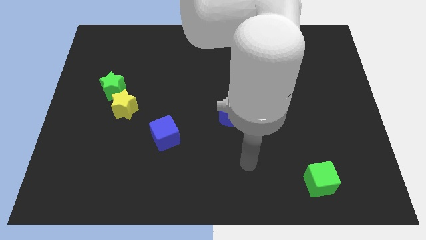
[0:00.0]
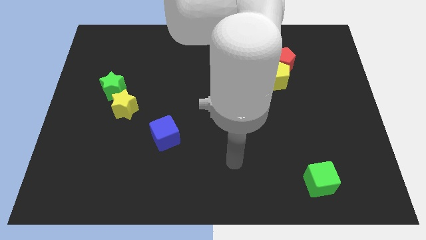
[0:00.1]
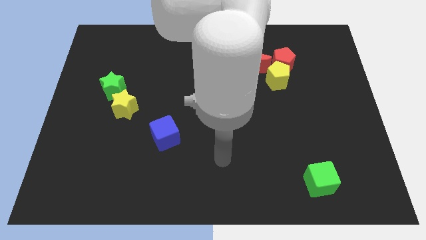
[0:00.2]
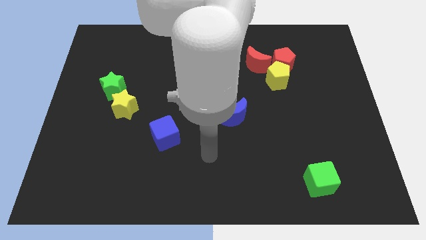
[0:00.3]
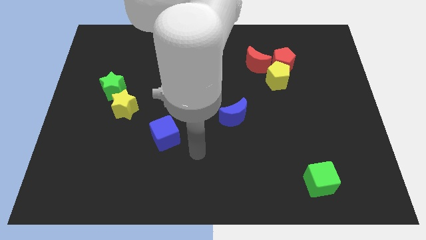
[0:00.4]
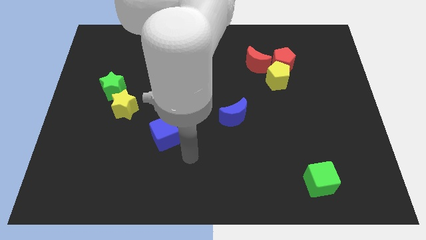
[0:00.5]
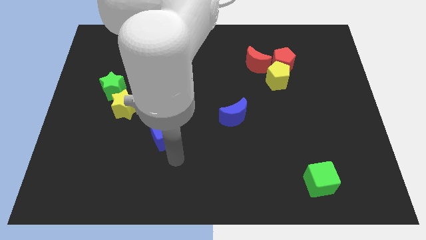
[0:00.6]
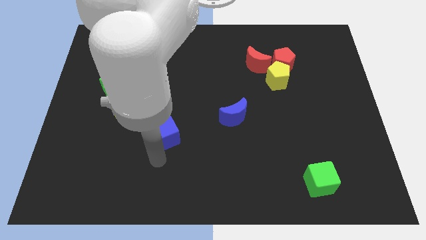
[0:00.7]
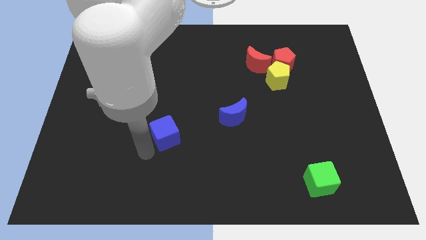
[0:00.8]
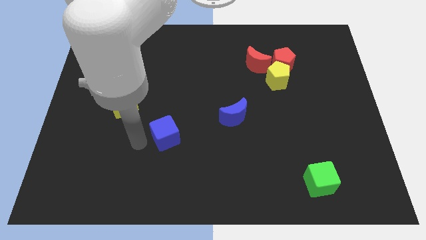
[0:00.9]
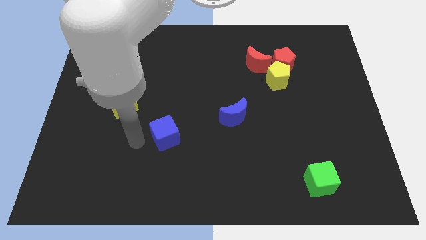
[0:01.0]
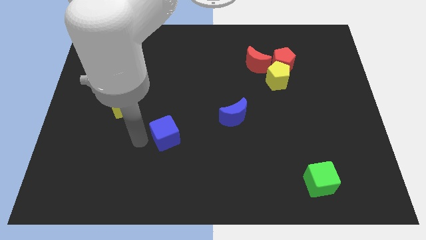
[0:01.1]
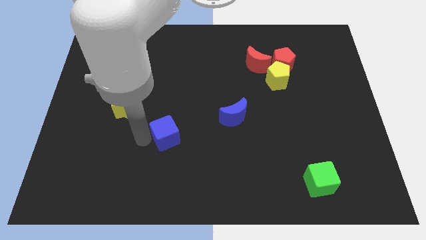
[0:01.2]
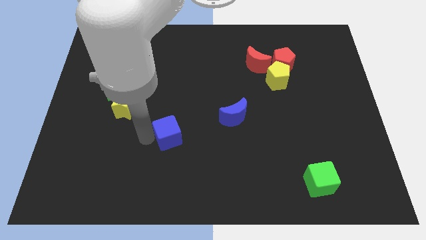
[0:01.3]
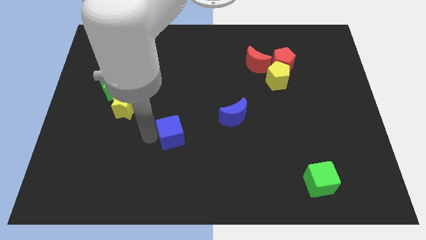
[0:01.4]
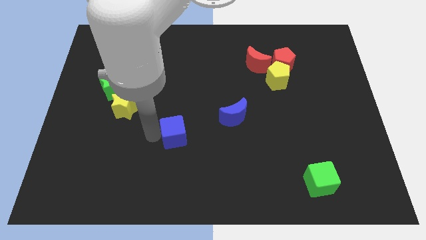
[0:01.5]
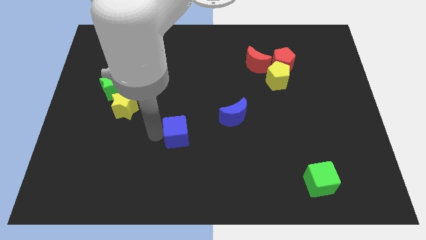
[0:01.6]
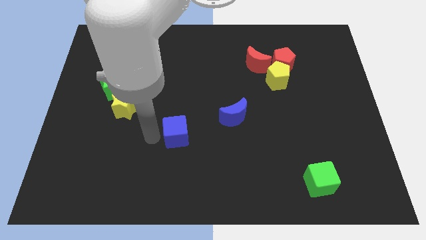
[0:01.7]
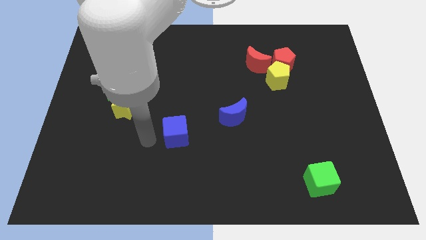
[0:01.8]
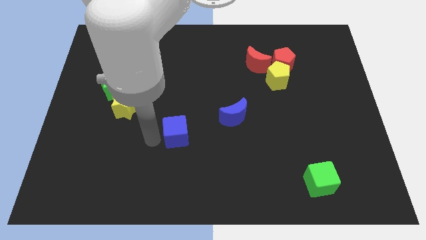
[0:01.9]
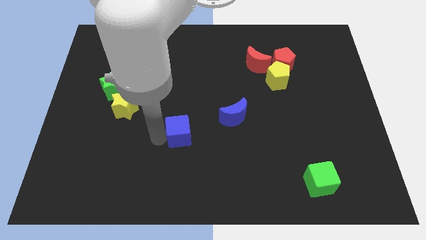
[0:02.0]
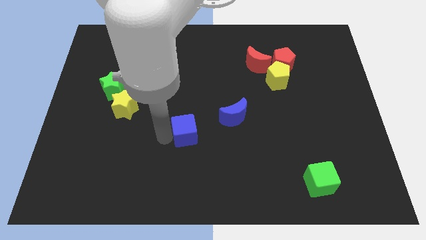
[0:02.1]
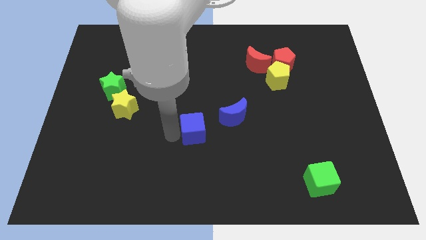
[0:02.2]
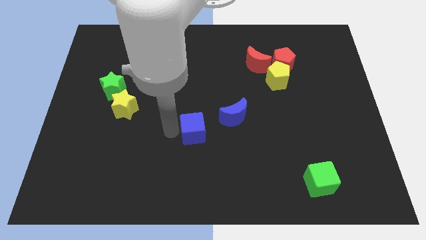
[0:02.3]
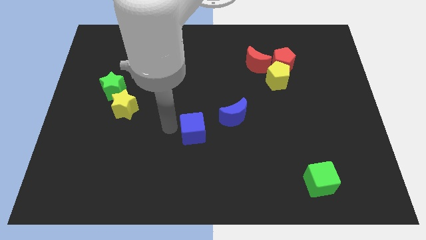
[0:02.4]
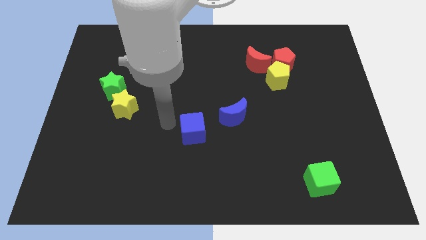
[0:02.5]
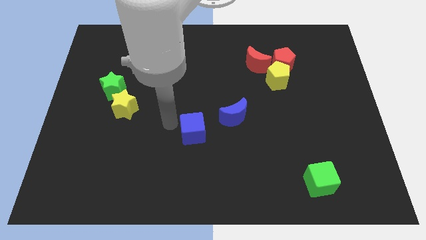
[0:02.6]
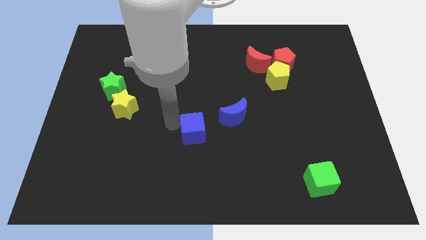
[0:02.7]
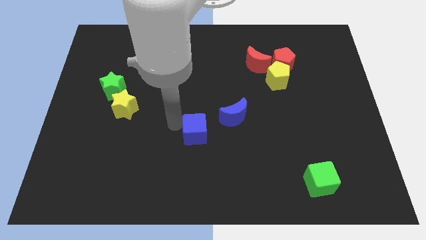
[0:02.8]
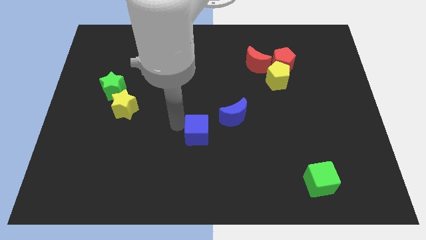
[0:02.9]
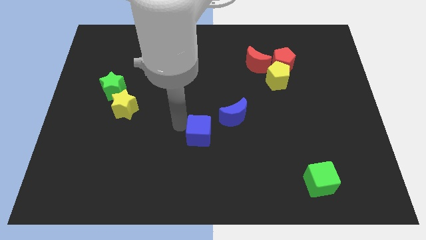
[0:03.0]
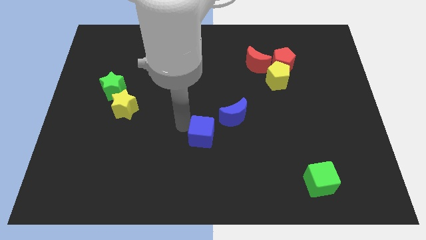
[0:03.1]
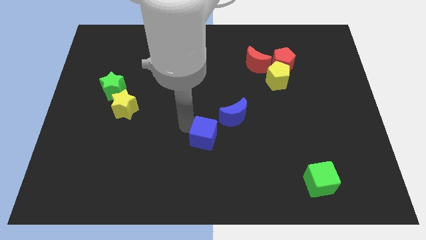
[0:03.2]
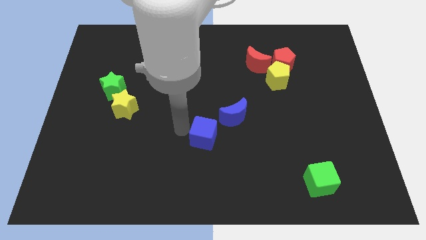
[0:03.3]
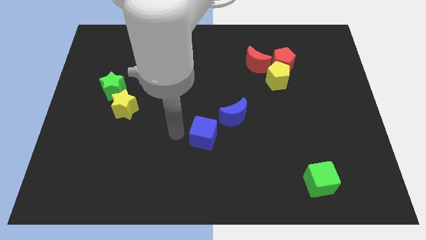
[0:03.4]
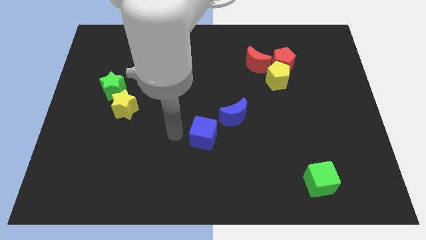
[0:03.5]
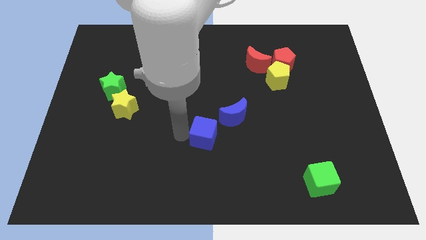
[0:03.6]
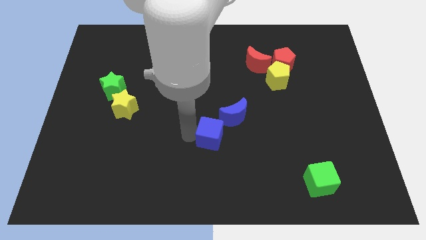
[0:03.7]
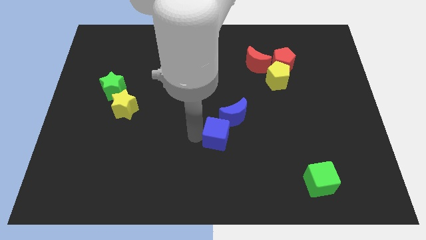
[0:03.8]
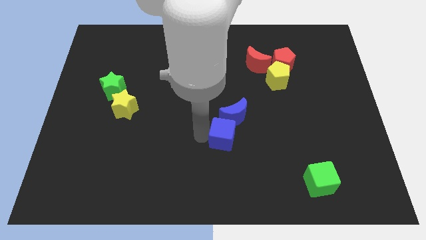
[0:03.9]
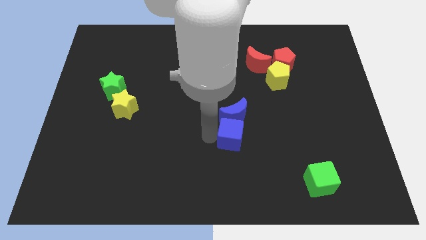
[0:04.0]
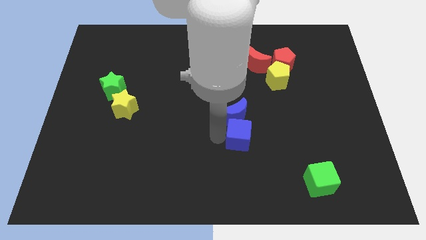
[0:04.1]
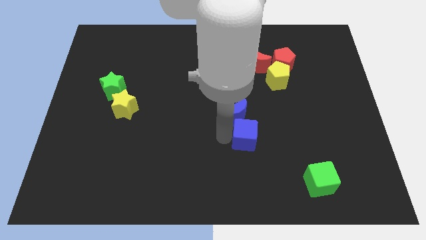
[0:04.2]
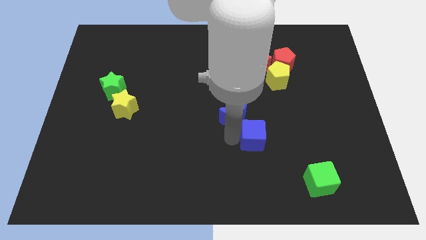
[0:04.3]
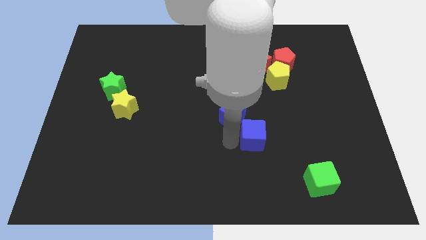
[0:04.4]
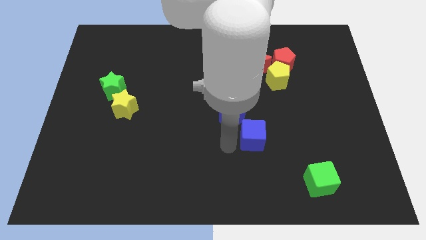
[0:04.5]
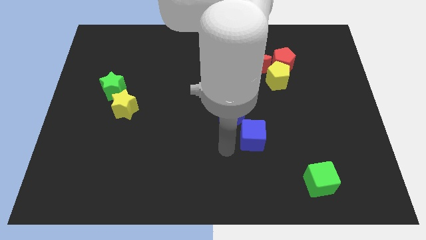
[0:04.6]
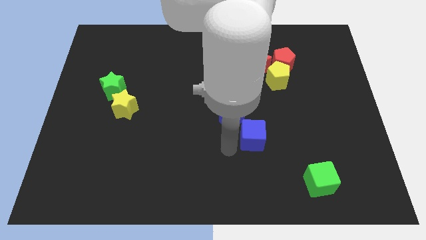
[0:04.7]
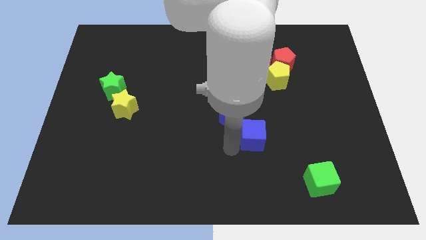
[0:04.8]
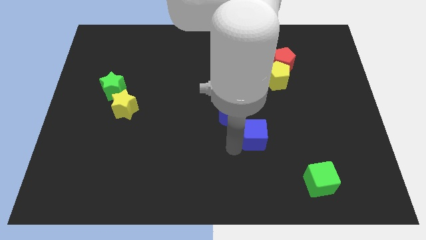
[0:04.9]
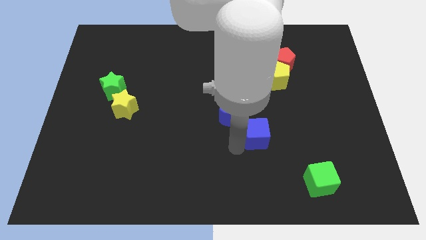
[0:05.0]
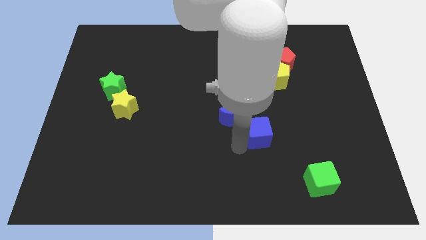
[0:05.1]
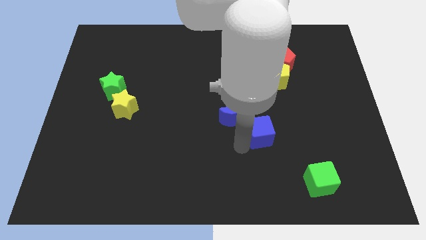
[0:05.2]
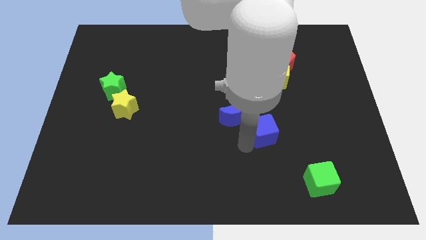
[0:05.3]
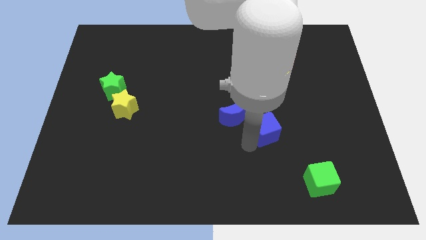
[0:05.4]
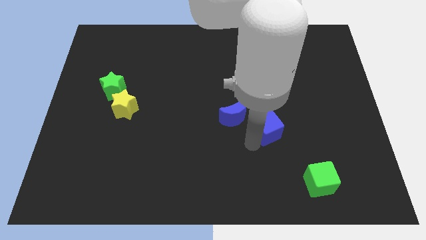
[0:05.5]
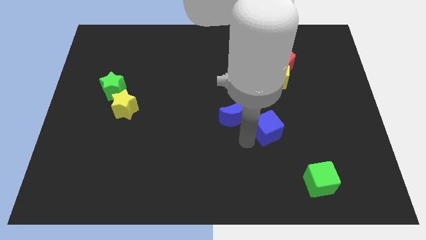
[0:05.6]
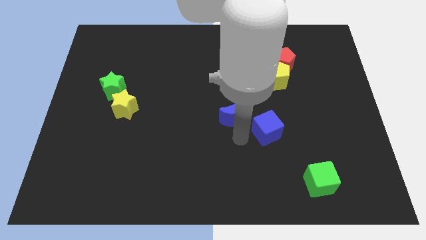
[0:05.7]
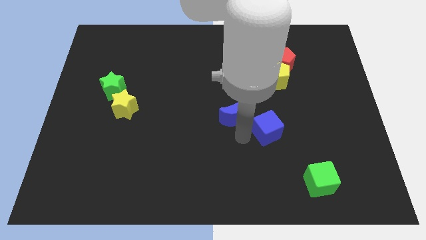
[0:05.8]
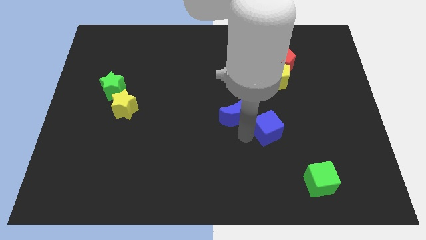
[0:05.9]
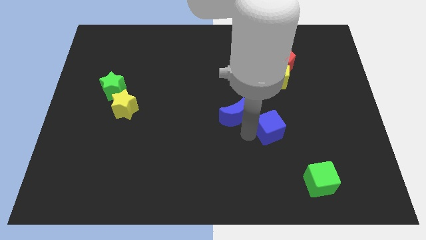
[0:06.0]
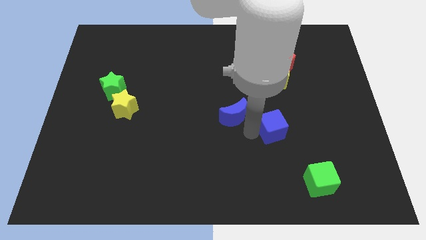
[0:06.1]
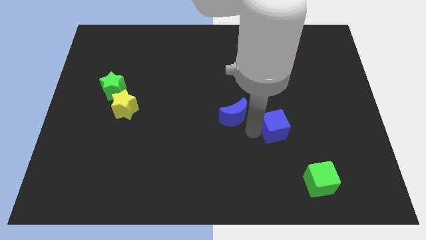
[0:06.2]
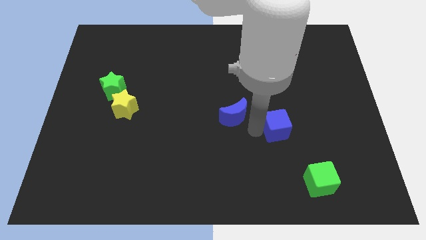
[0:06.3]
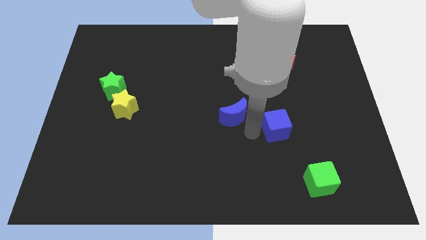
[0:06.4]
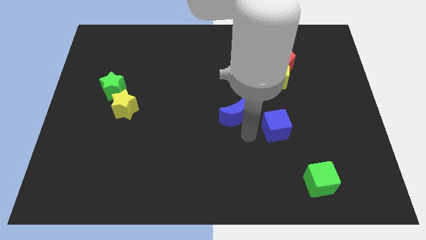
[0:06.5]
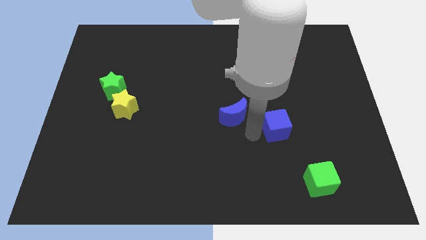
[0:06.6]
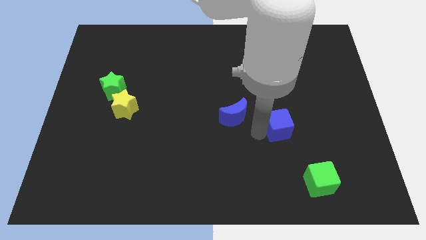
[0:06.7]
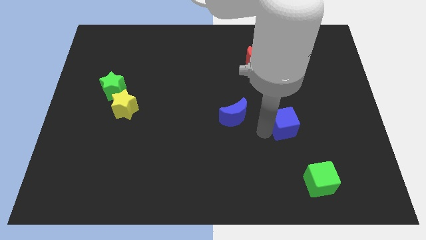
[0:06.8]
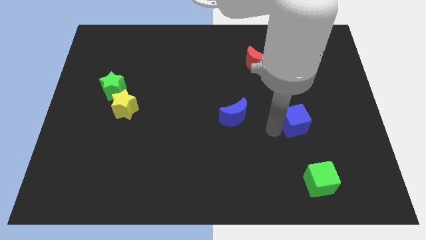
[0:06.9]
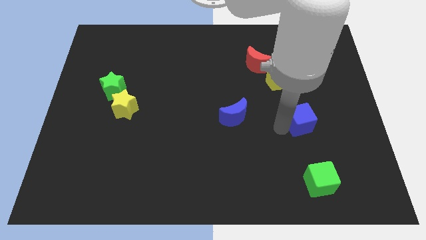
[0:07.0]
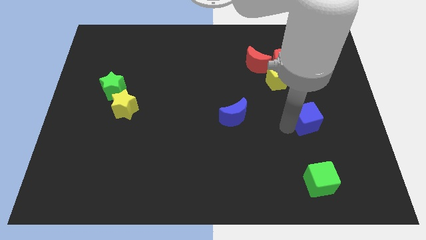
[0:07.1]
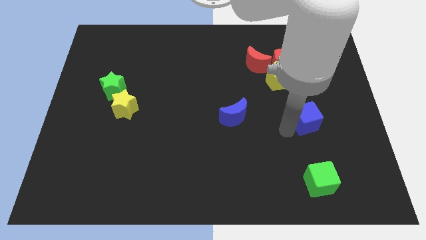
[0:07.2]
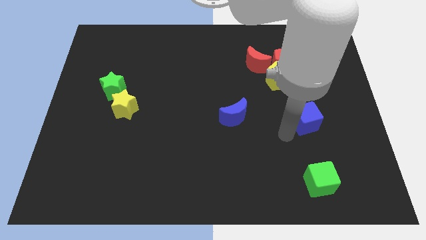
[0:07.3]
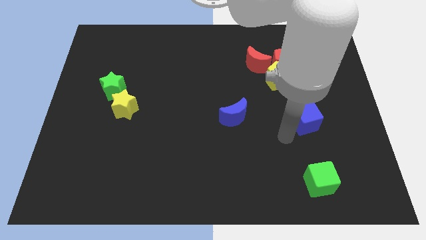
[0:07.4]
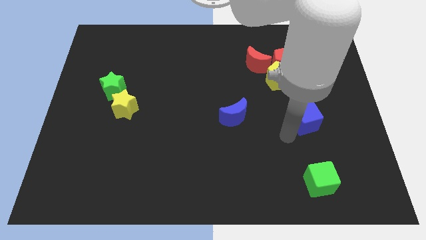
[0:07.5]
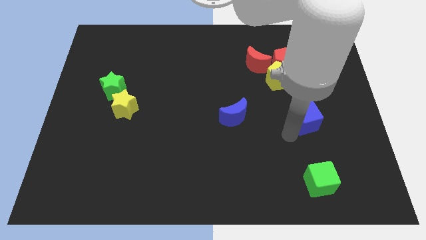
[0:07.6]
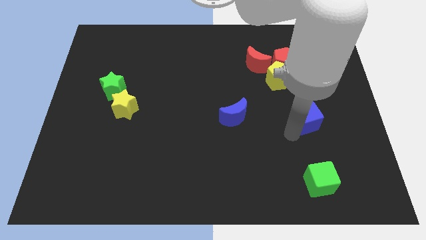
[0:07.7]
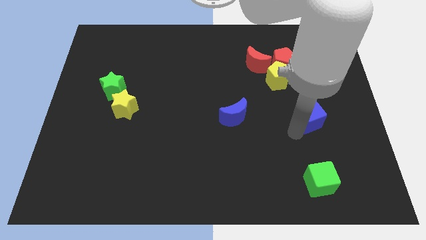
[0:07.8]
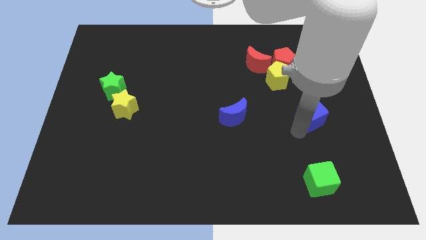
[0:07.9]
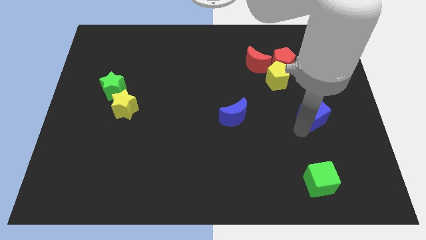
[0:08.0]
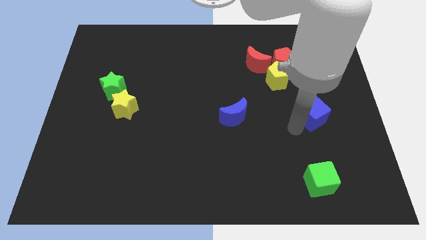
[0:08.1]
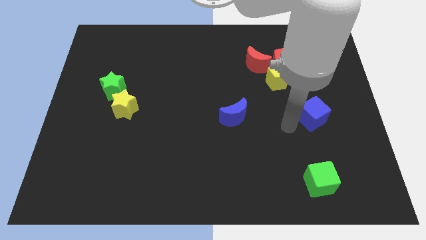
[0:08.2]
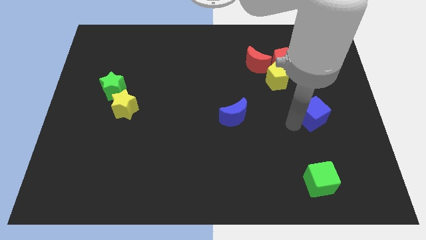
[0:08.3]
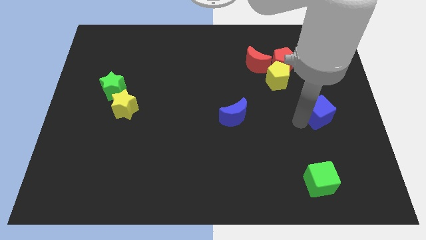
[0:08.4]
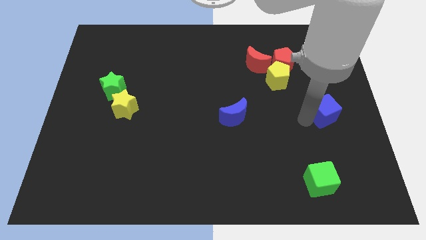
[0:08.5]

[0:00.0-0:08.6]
move the blue cube to the right side of the board
